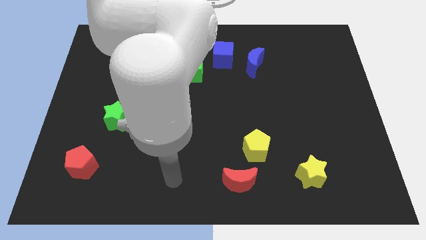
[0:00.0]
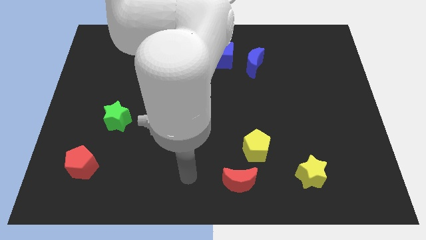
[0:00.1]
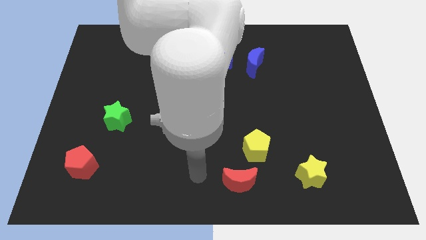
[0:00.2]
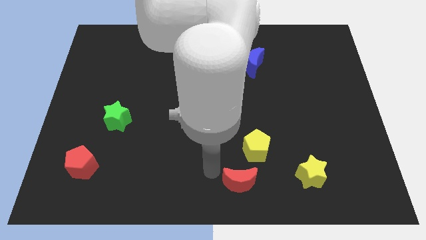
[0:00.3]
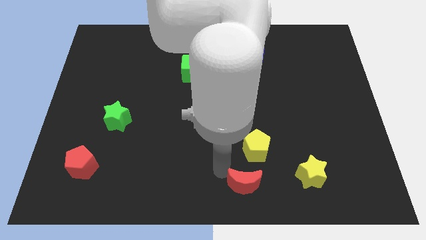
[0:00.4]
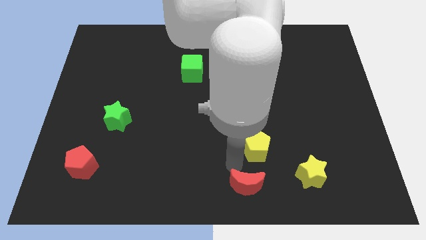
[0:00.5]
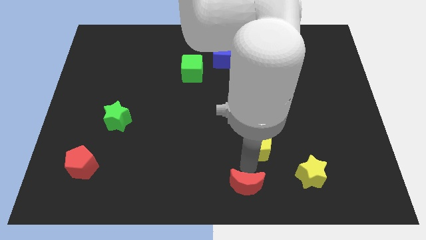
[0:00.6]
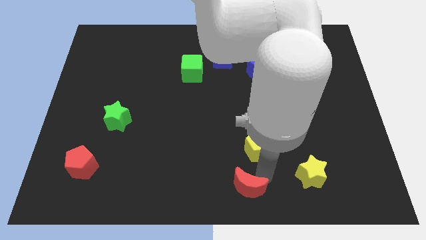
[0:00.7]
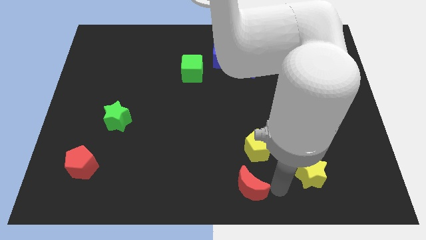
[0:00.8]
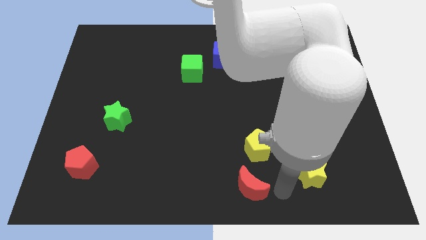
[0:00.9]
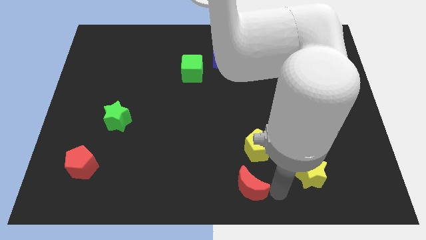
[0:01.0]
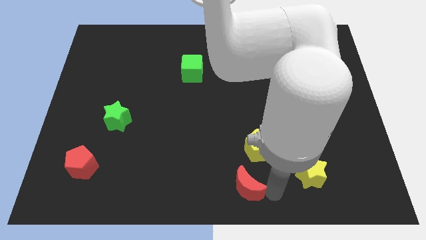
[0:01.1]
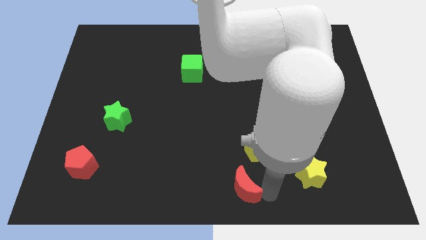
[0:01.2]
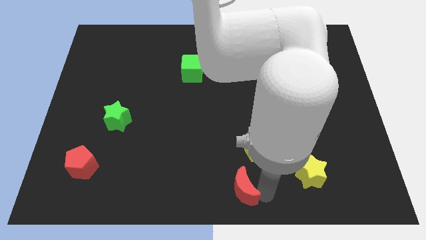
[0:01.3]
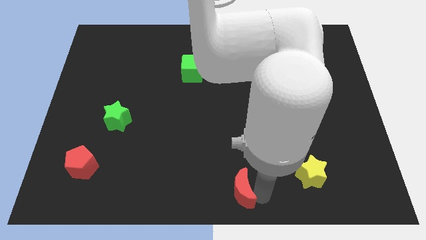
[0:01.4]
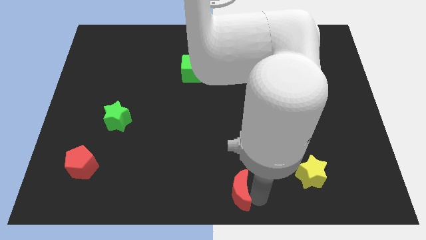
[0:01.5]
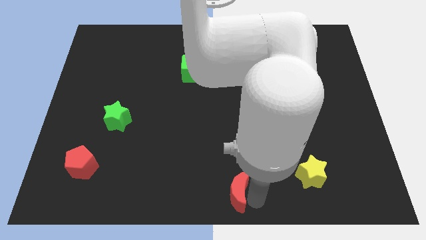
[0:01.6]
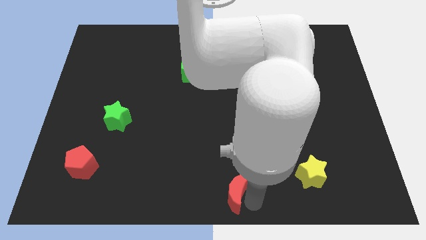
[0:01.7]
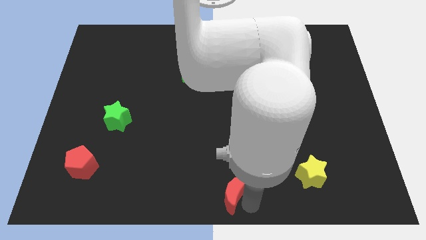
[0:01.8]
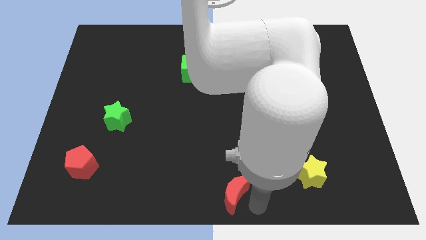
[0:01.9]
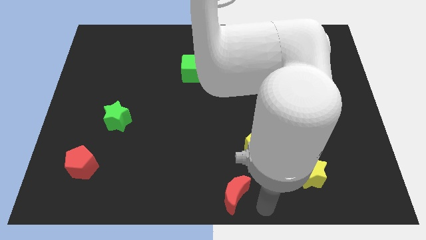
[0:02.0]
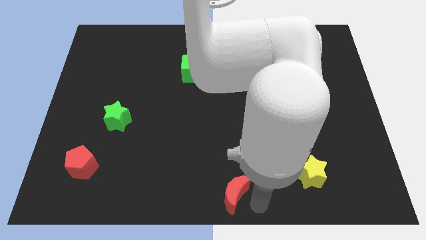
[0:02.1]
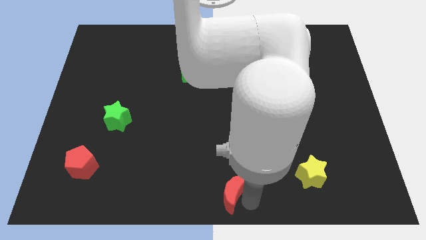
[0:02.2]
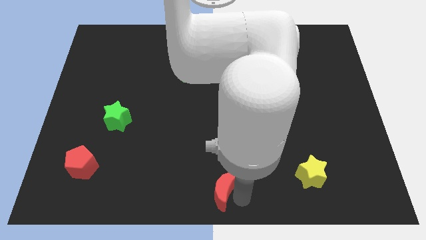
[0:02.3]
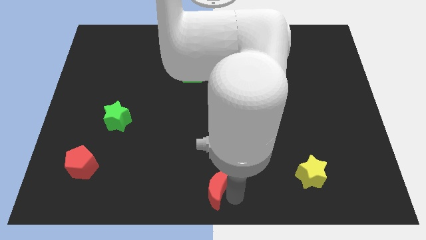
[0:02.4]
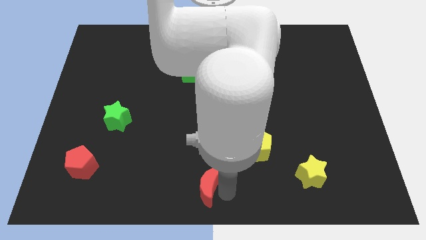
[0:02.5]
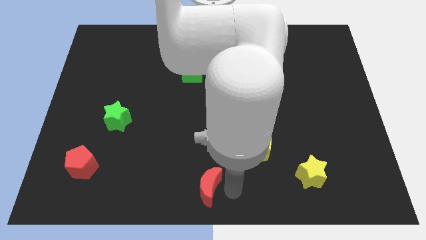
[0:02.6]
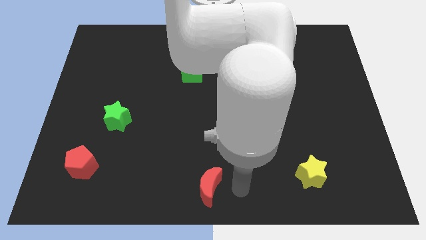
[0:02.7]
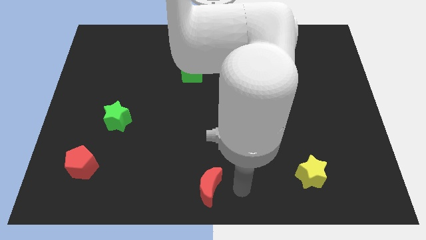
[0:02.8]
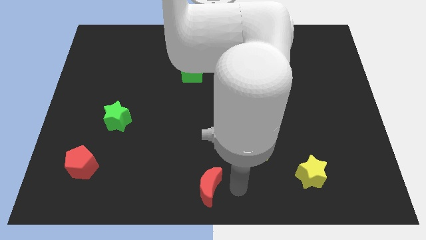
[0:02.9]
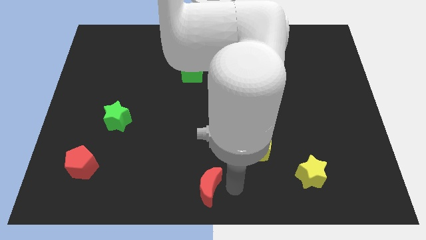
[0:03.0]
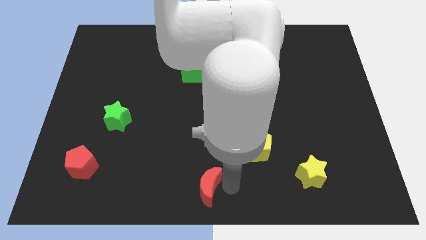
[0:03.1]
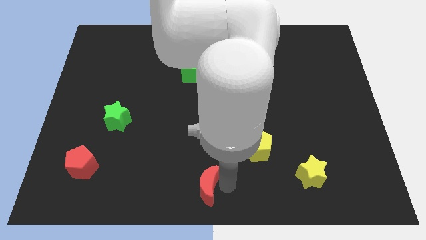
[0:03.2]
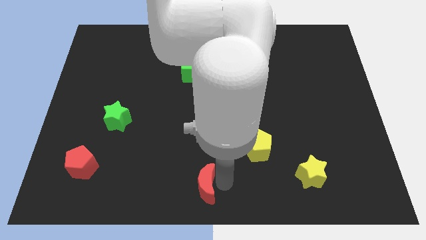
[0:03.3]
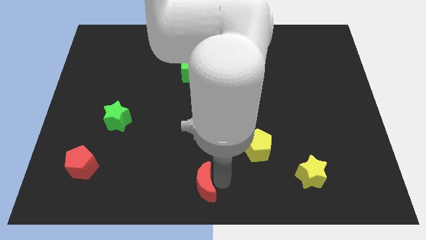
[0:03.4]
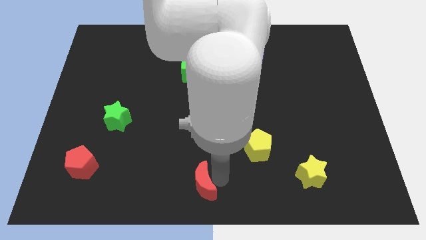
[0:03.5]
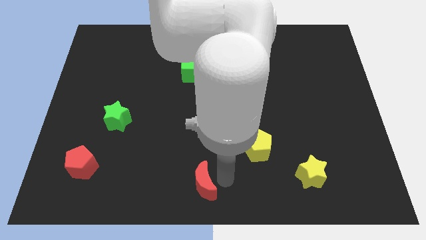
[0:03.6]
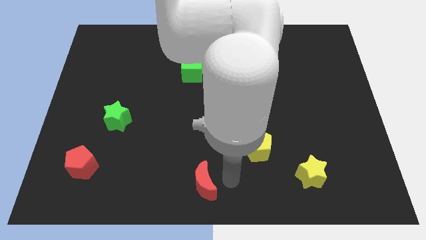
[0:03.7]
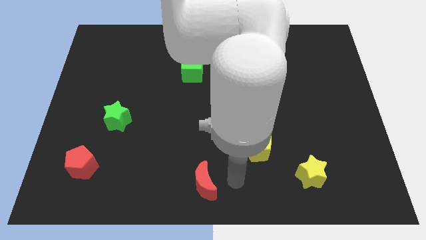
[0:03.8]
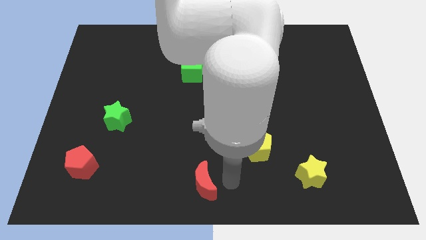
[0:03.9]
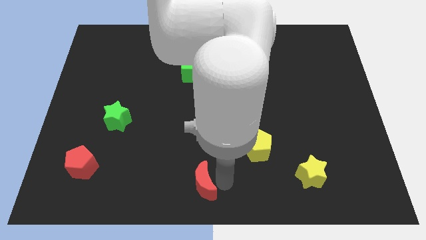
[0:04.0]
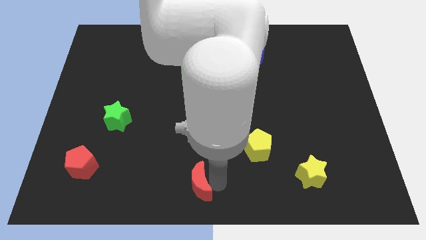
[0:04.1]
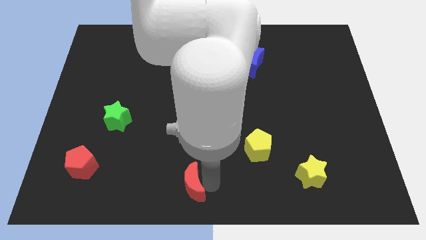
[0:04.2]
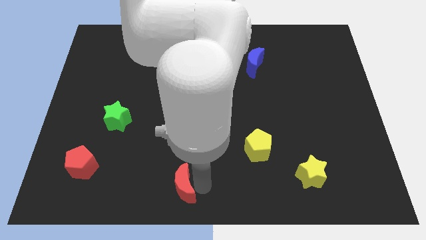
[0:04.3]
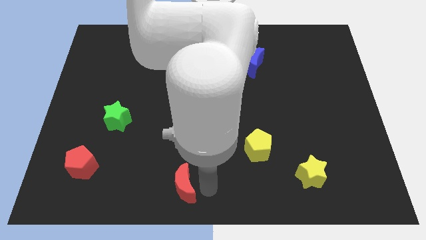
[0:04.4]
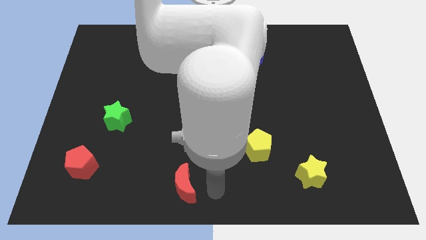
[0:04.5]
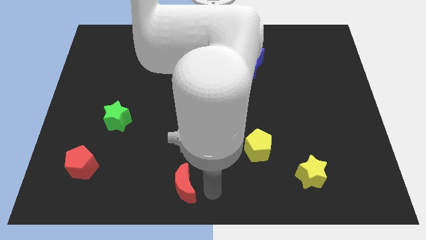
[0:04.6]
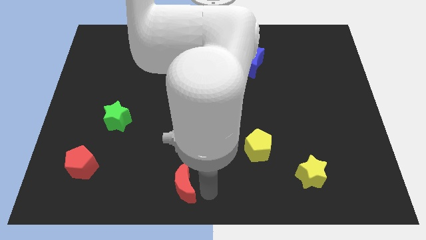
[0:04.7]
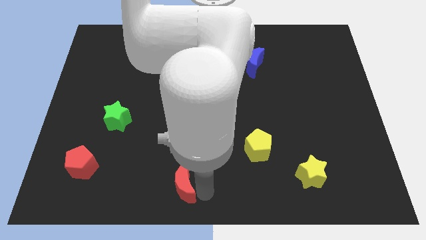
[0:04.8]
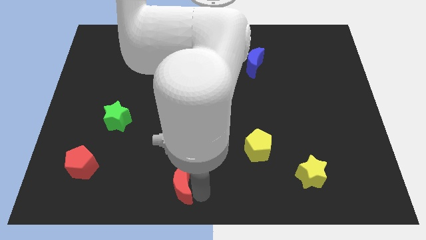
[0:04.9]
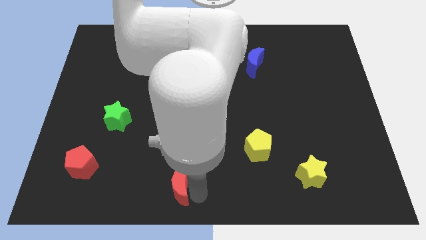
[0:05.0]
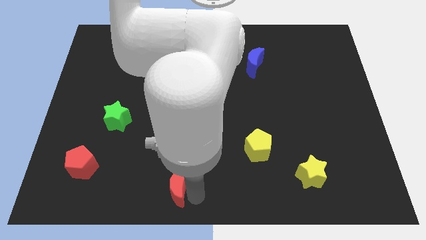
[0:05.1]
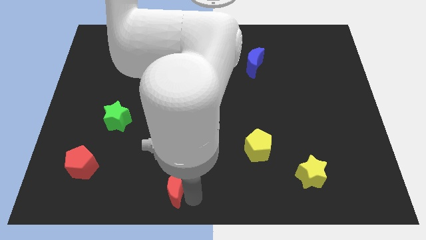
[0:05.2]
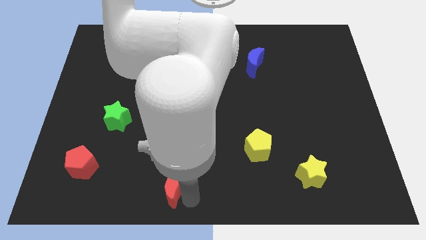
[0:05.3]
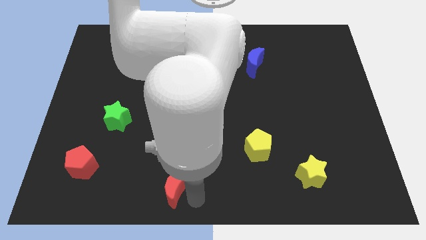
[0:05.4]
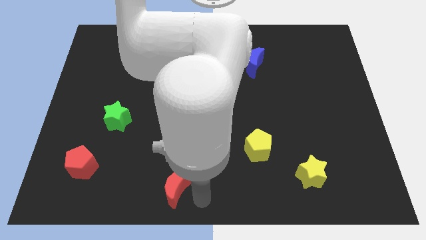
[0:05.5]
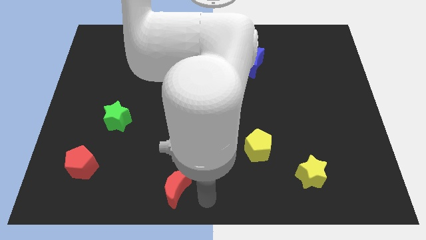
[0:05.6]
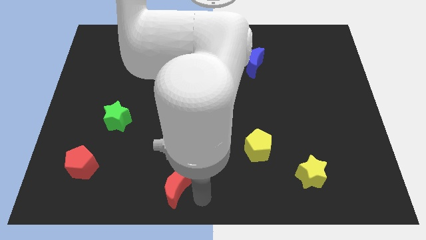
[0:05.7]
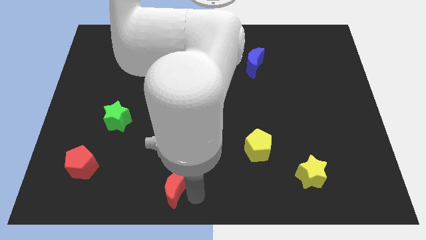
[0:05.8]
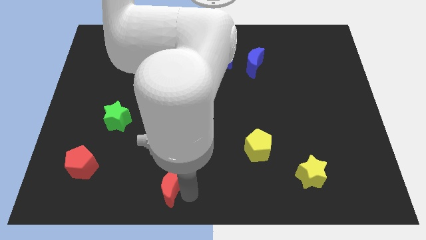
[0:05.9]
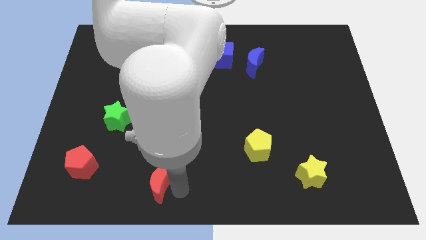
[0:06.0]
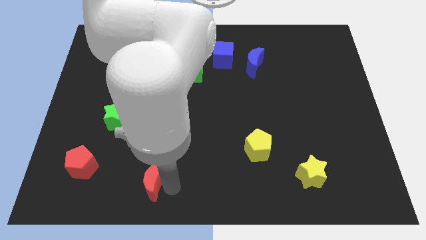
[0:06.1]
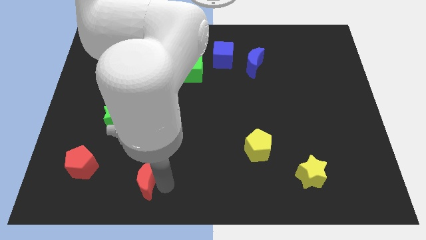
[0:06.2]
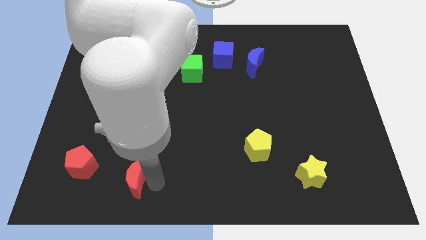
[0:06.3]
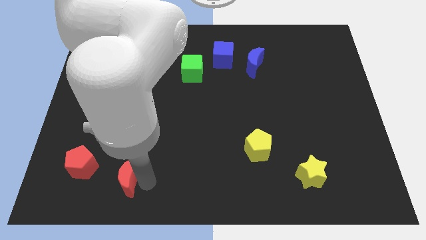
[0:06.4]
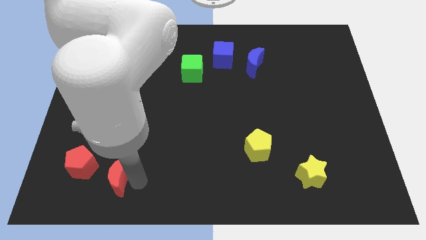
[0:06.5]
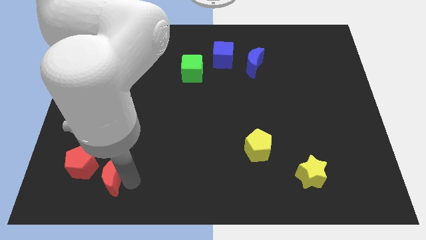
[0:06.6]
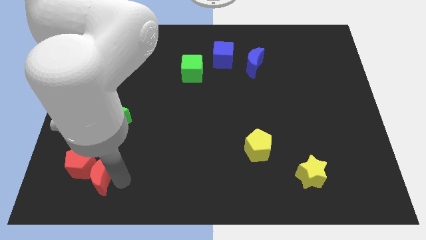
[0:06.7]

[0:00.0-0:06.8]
push the red moon next to the red pentagon

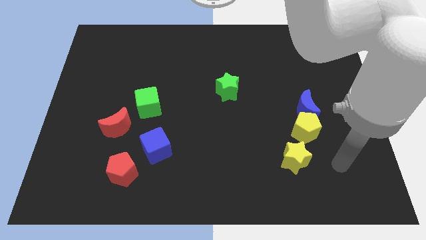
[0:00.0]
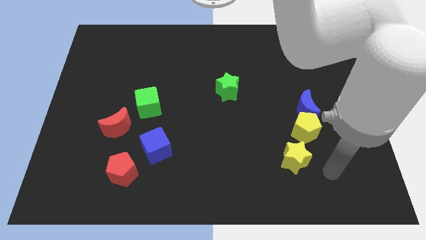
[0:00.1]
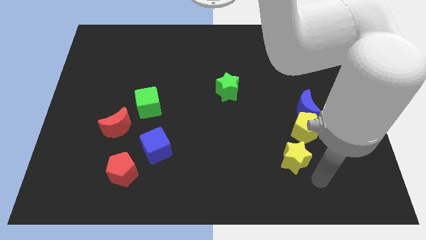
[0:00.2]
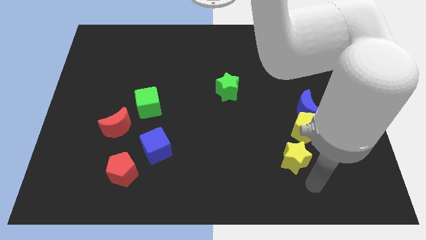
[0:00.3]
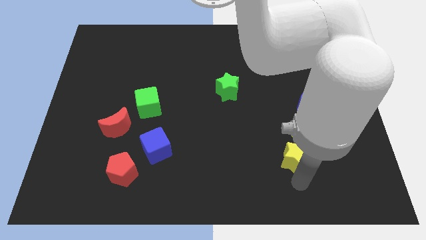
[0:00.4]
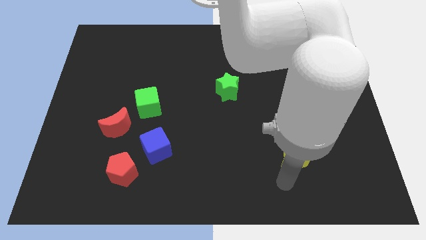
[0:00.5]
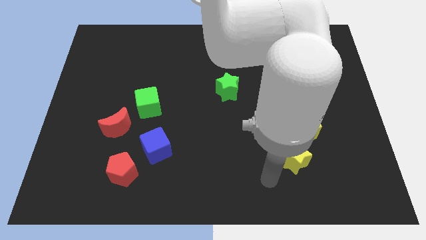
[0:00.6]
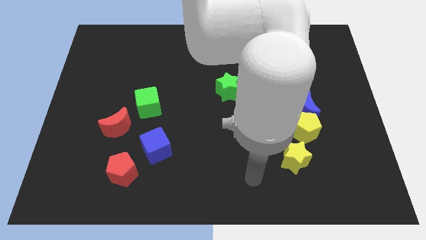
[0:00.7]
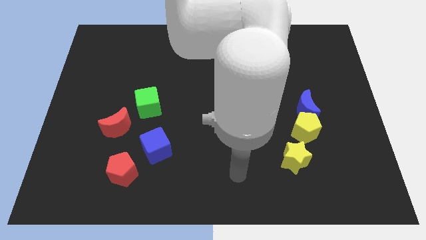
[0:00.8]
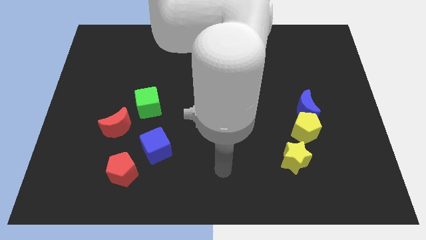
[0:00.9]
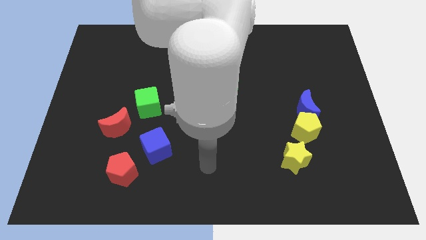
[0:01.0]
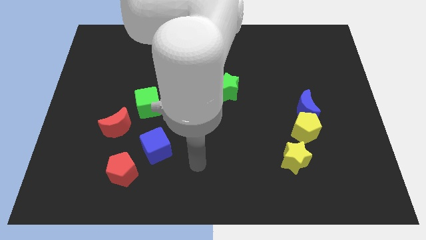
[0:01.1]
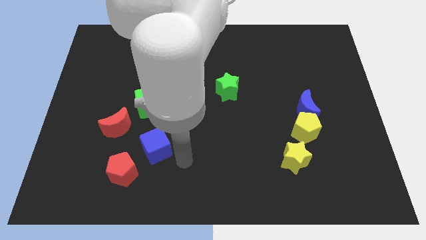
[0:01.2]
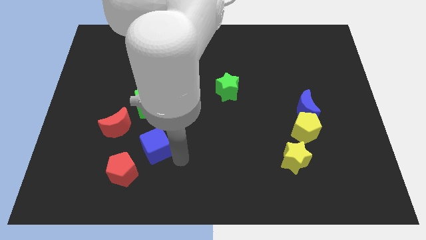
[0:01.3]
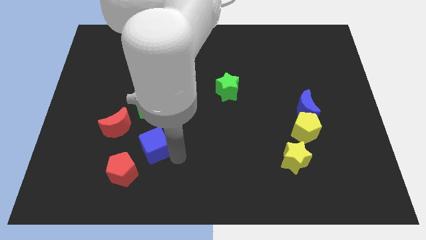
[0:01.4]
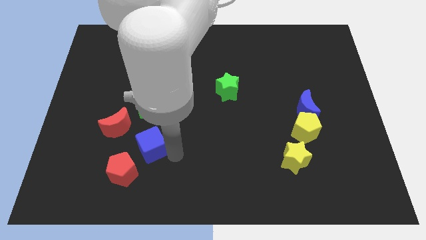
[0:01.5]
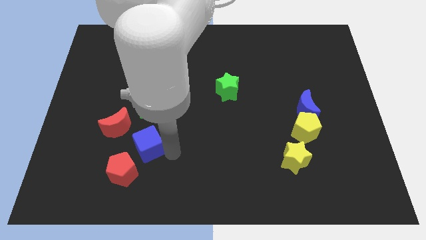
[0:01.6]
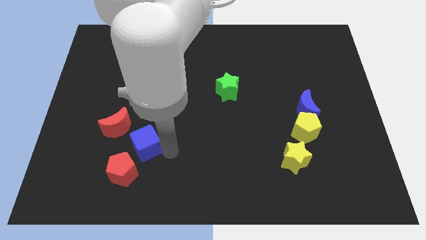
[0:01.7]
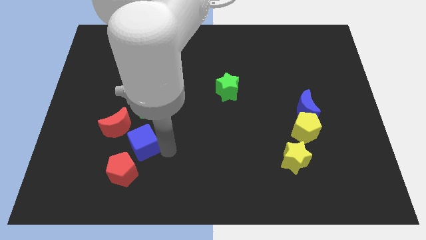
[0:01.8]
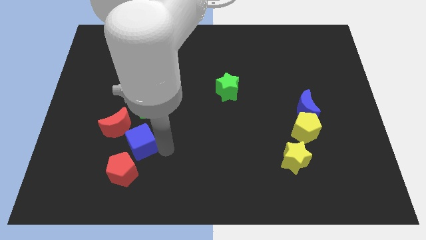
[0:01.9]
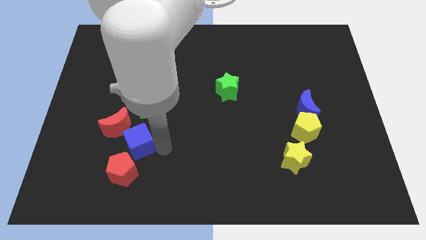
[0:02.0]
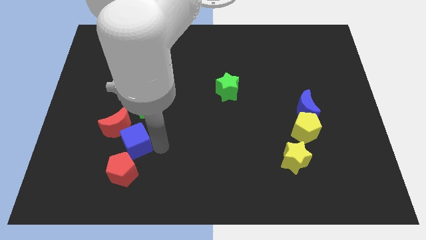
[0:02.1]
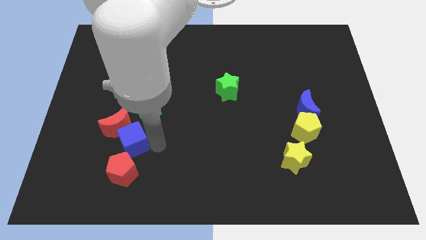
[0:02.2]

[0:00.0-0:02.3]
move the blue cube towards the red moon
